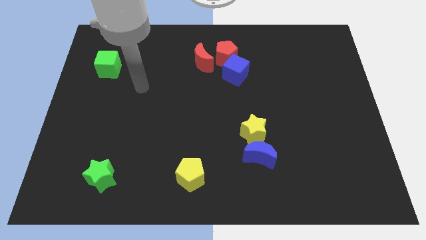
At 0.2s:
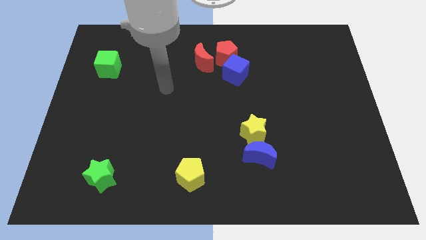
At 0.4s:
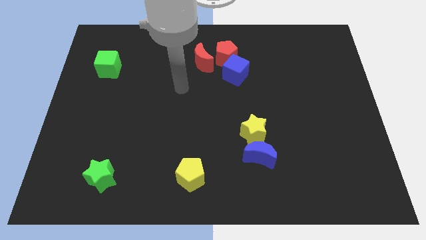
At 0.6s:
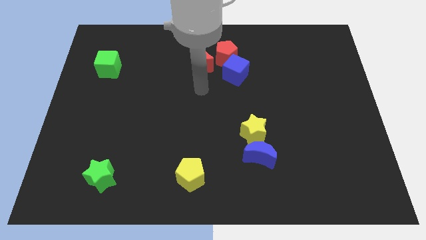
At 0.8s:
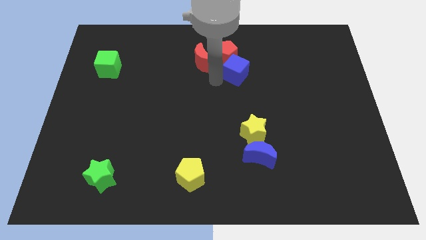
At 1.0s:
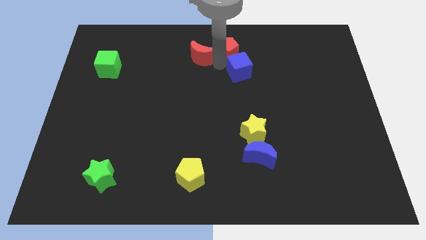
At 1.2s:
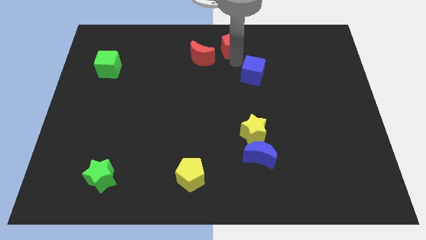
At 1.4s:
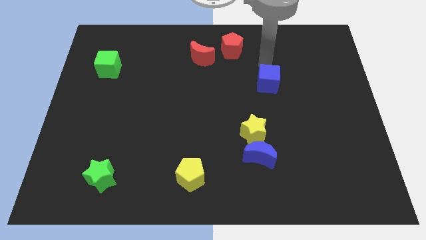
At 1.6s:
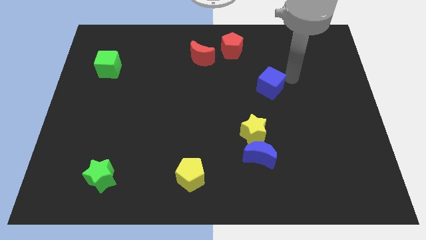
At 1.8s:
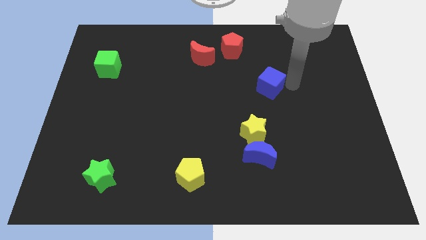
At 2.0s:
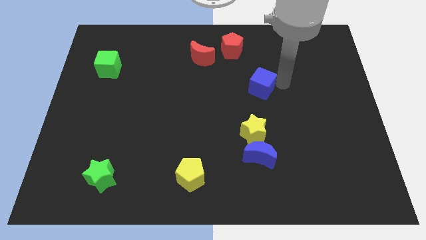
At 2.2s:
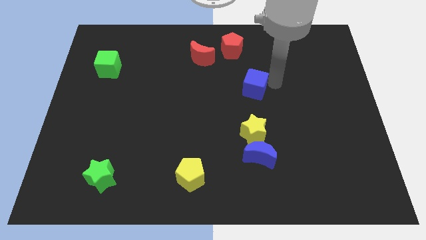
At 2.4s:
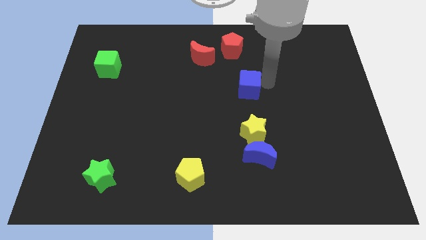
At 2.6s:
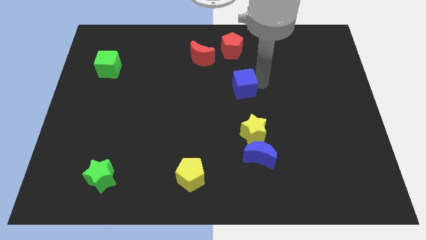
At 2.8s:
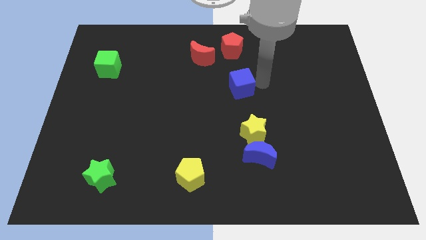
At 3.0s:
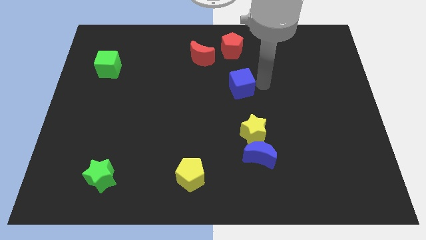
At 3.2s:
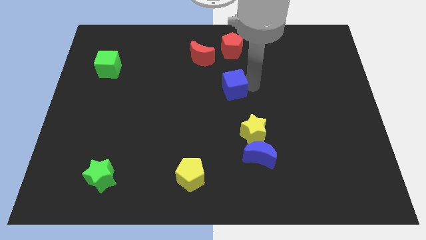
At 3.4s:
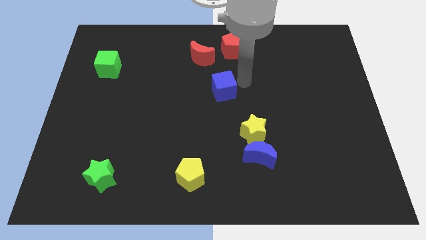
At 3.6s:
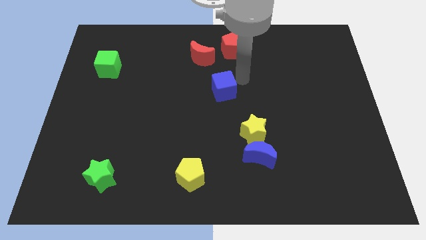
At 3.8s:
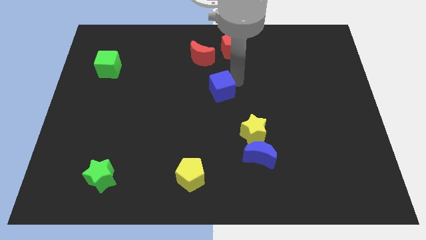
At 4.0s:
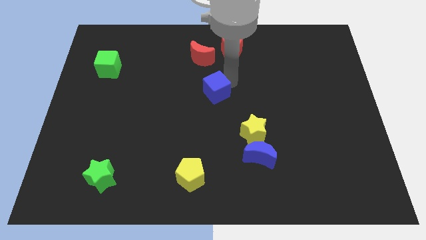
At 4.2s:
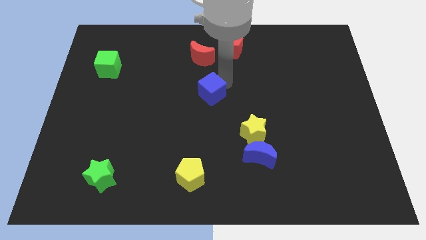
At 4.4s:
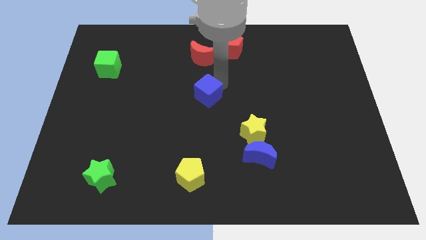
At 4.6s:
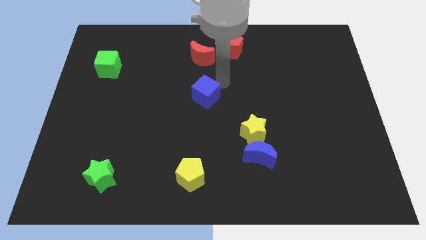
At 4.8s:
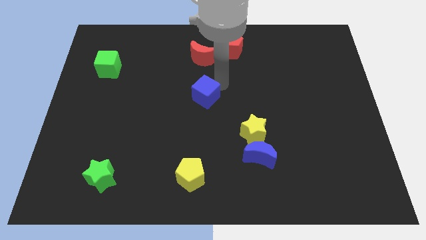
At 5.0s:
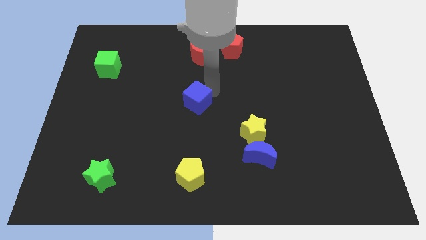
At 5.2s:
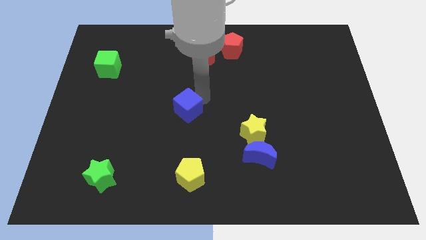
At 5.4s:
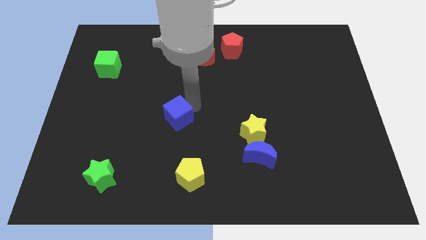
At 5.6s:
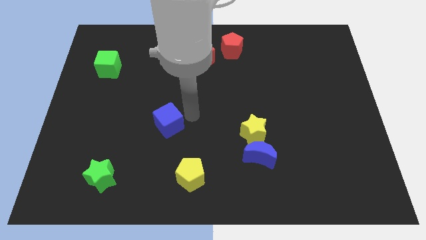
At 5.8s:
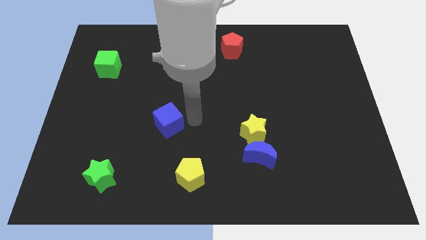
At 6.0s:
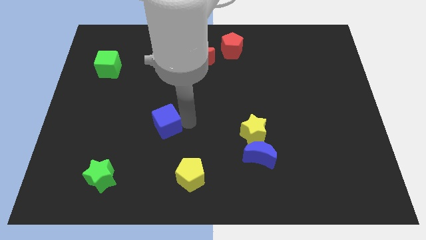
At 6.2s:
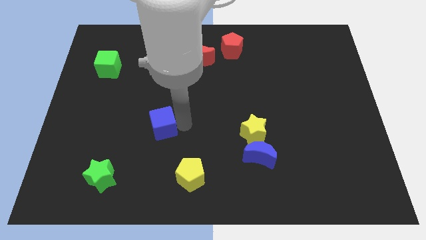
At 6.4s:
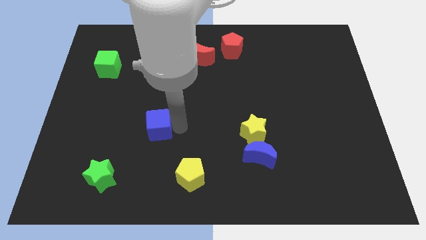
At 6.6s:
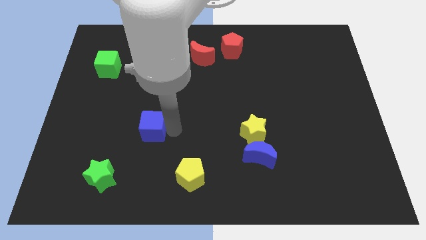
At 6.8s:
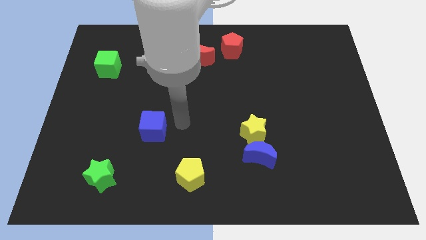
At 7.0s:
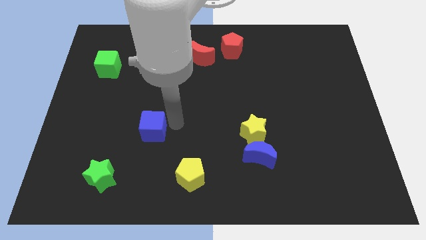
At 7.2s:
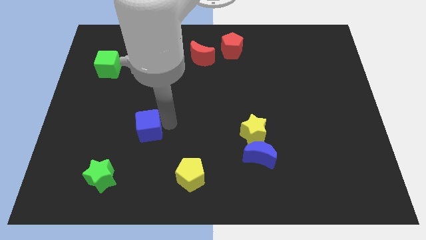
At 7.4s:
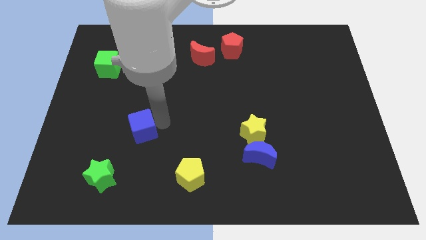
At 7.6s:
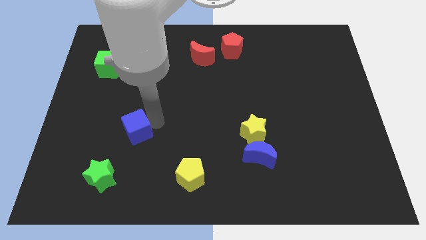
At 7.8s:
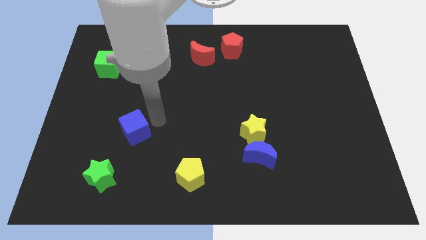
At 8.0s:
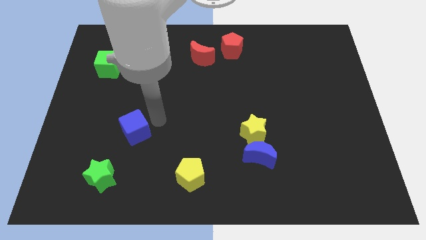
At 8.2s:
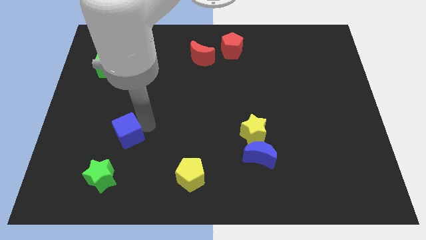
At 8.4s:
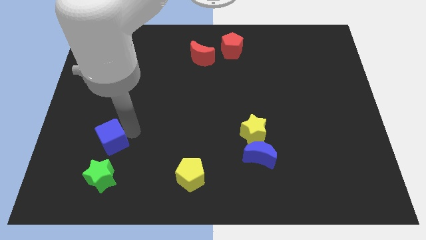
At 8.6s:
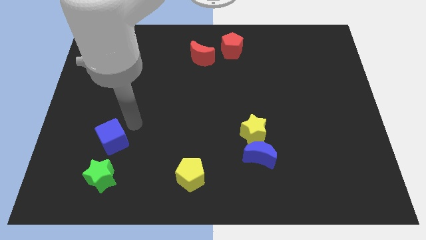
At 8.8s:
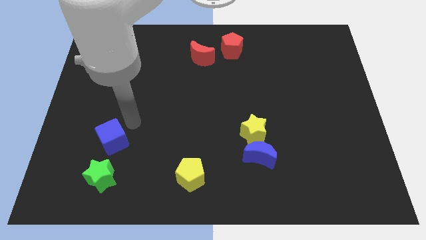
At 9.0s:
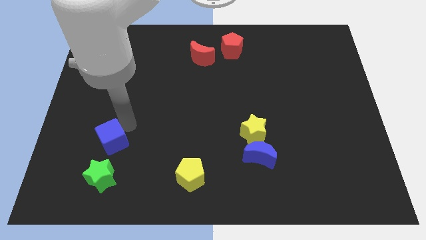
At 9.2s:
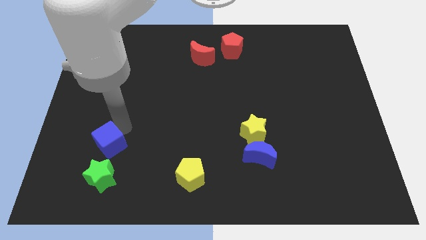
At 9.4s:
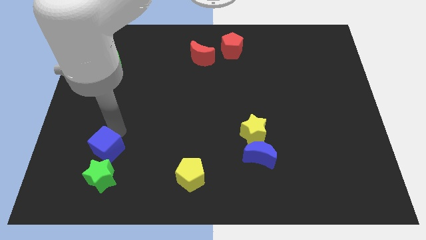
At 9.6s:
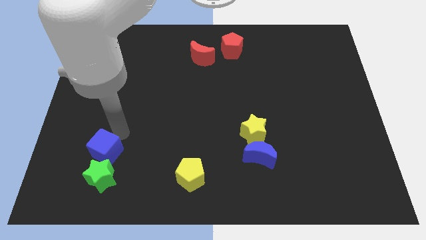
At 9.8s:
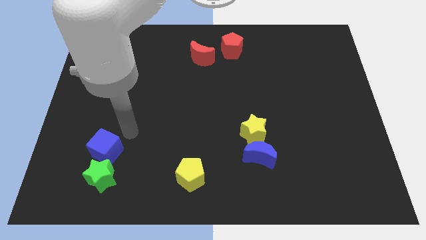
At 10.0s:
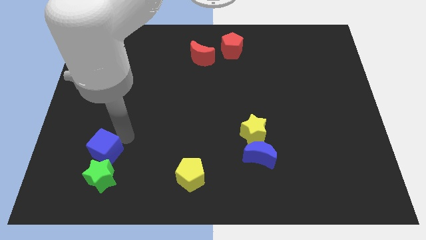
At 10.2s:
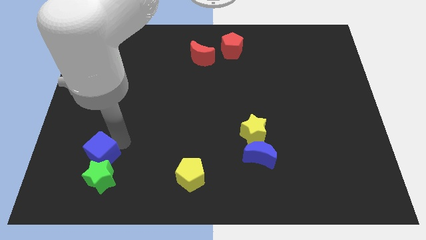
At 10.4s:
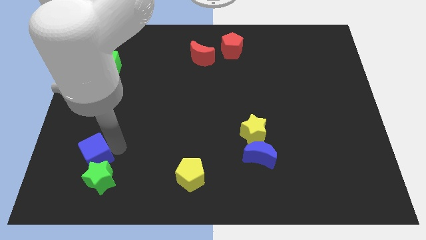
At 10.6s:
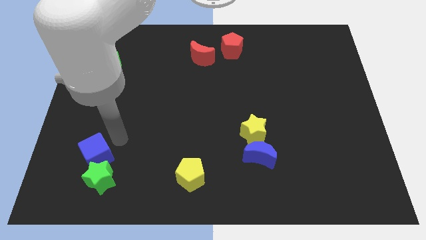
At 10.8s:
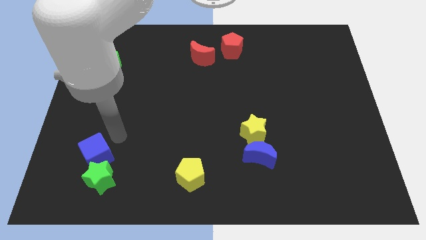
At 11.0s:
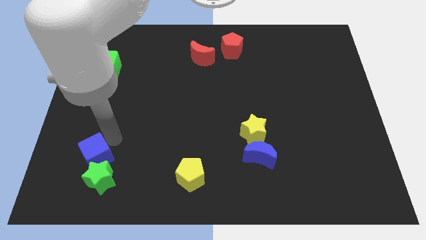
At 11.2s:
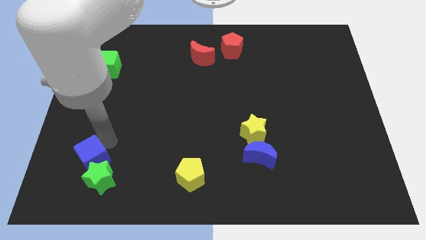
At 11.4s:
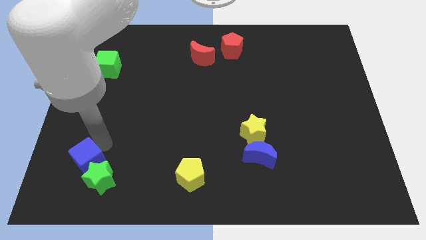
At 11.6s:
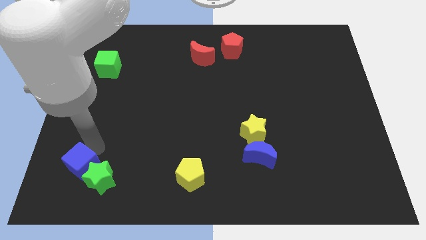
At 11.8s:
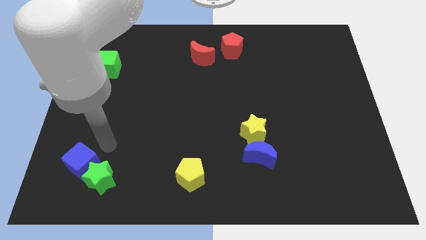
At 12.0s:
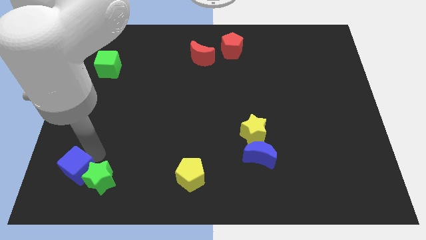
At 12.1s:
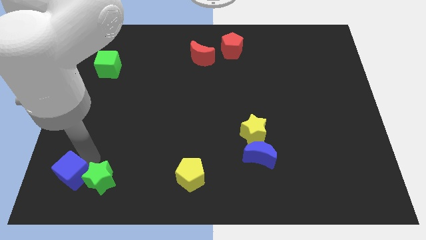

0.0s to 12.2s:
put the blue cube to the bottom left of the board
